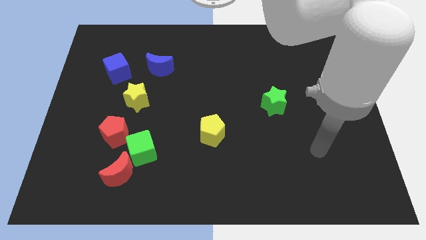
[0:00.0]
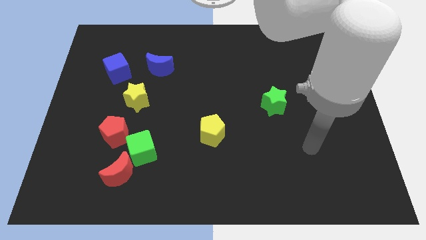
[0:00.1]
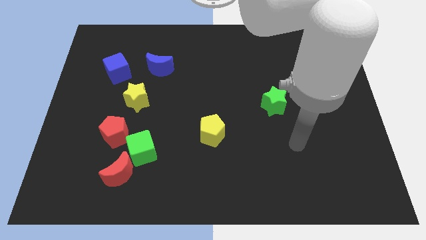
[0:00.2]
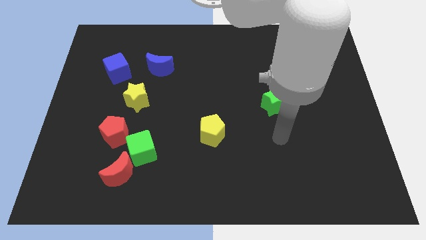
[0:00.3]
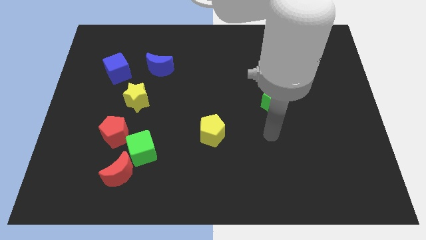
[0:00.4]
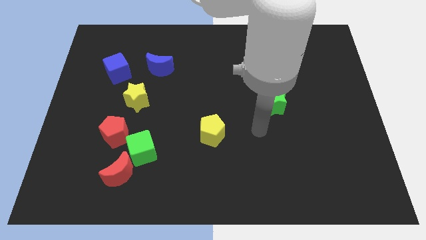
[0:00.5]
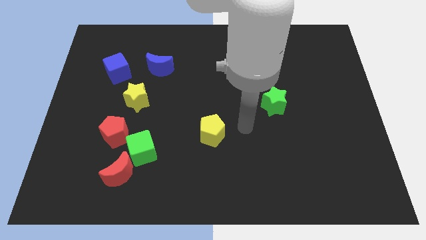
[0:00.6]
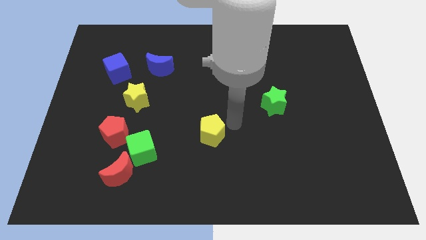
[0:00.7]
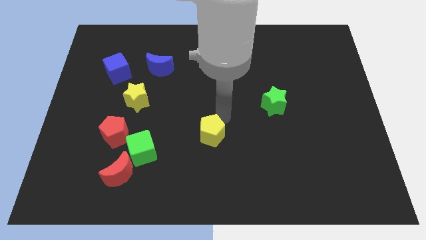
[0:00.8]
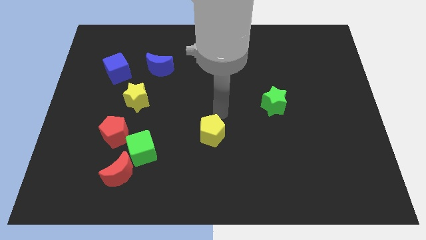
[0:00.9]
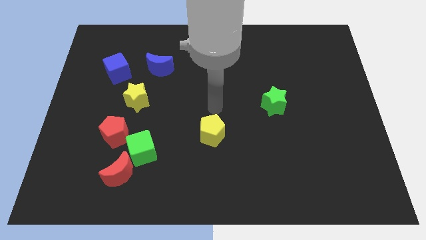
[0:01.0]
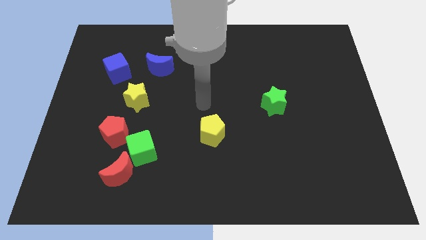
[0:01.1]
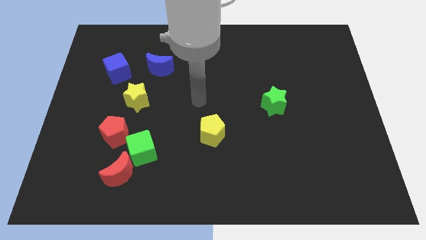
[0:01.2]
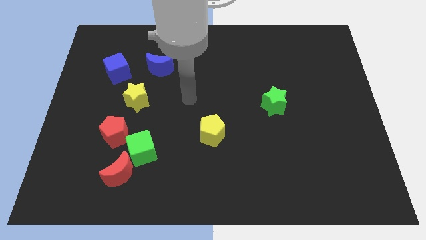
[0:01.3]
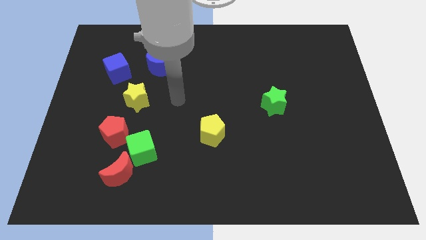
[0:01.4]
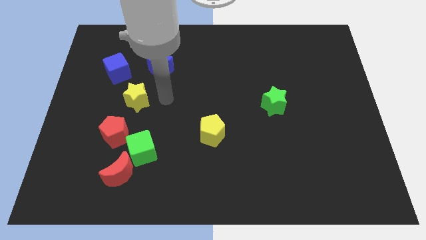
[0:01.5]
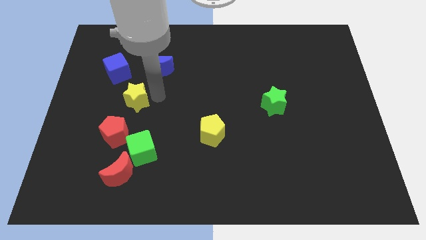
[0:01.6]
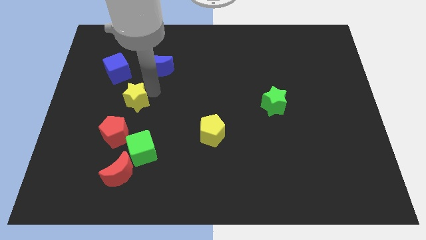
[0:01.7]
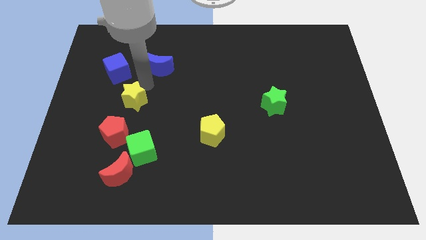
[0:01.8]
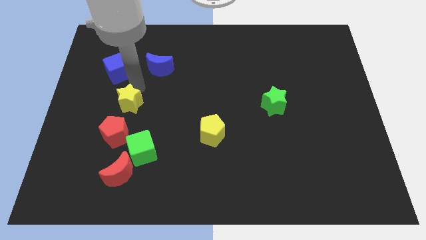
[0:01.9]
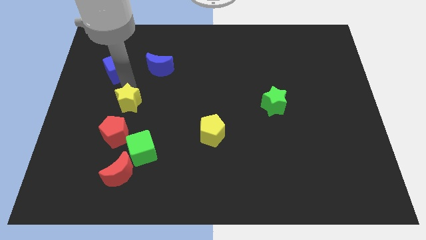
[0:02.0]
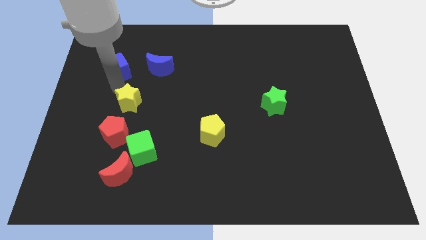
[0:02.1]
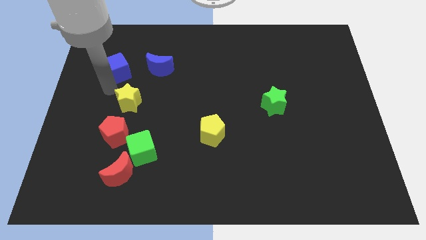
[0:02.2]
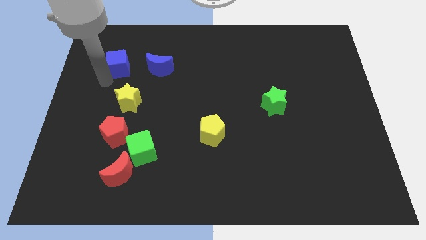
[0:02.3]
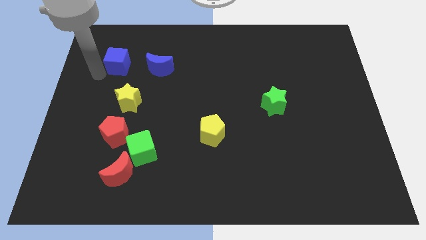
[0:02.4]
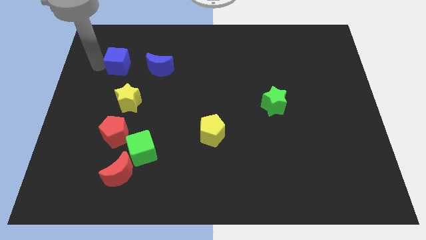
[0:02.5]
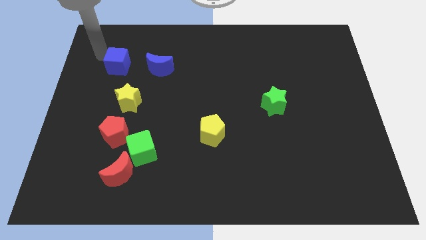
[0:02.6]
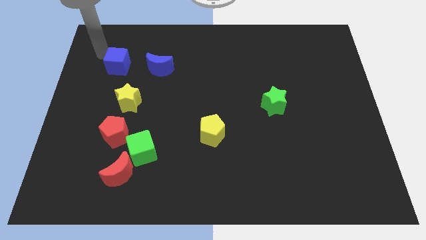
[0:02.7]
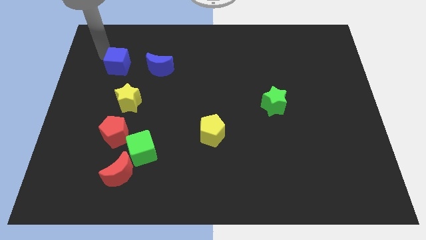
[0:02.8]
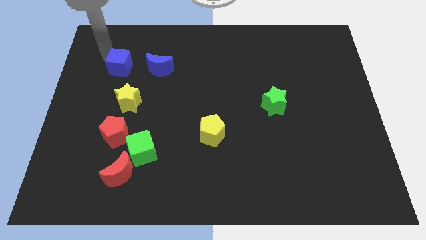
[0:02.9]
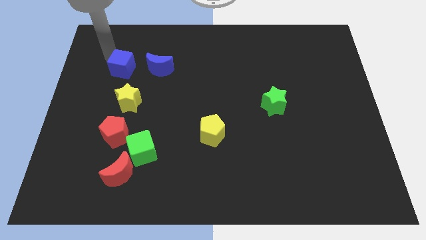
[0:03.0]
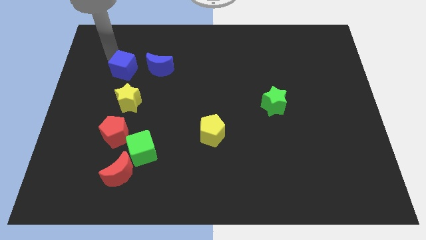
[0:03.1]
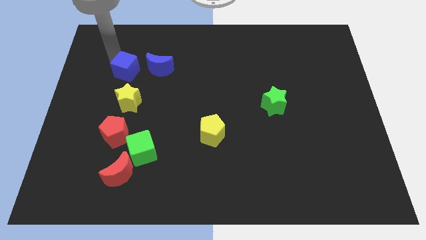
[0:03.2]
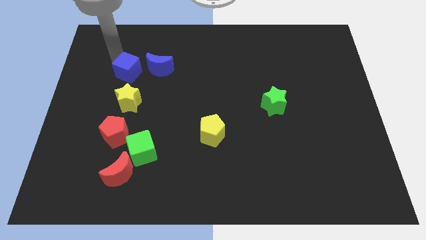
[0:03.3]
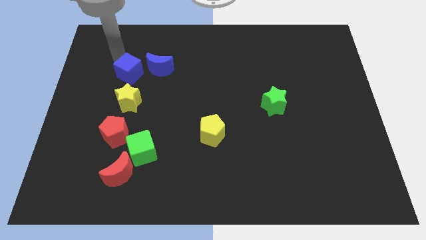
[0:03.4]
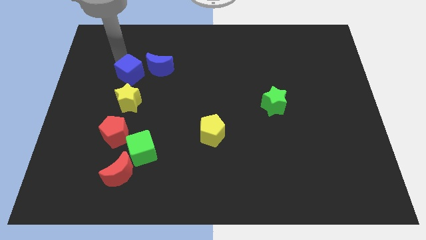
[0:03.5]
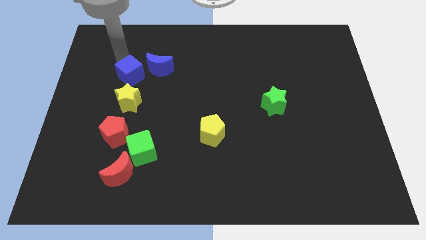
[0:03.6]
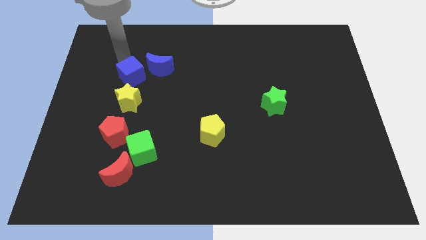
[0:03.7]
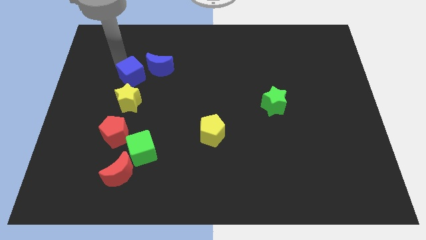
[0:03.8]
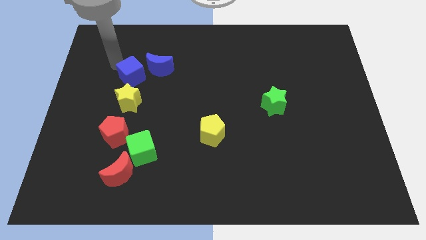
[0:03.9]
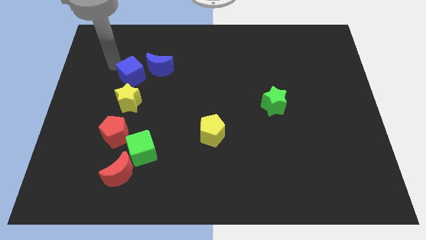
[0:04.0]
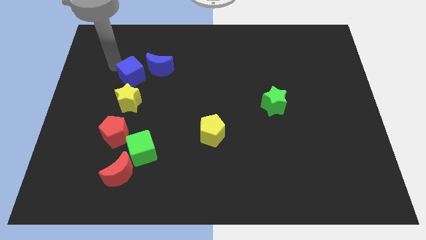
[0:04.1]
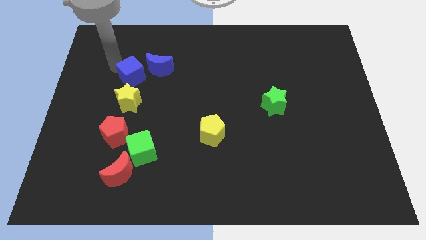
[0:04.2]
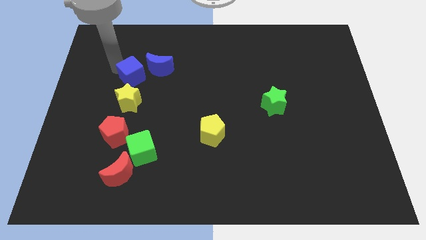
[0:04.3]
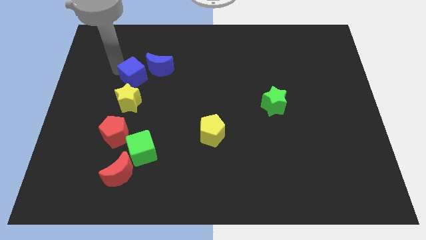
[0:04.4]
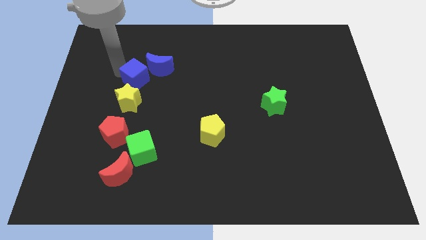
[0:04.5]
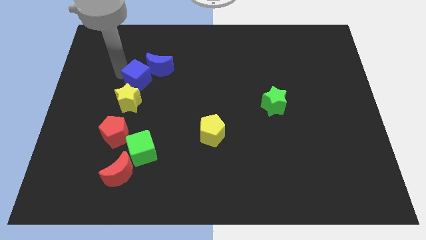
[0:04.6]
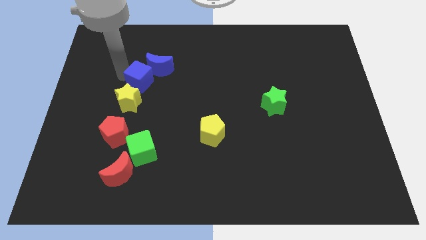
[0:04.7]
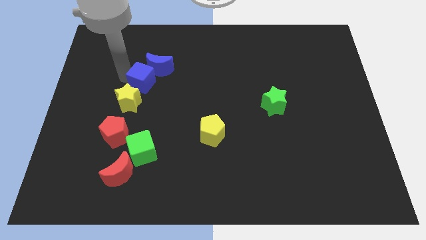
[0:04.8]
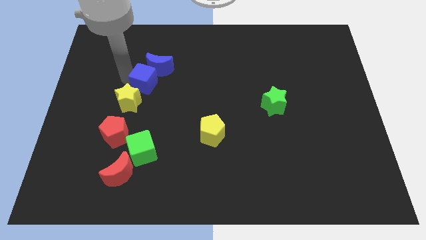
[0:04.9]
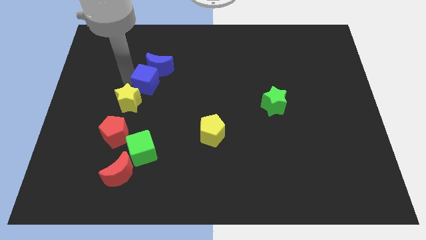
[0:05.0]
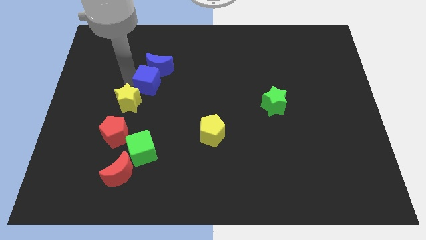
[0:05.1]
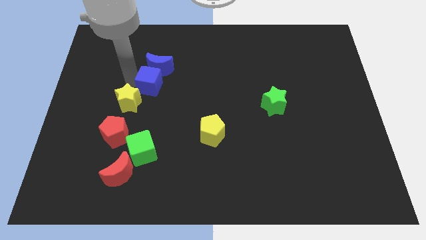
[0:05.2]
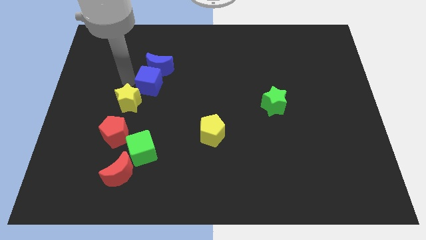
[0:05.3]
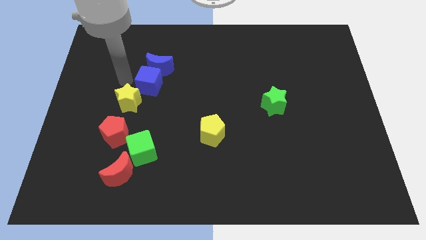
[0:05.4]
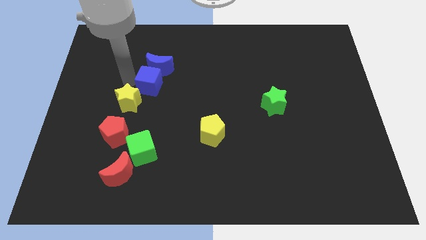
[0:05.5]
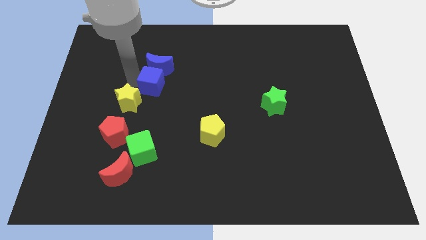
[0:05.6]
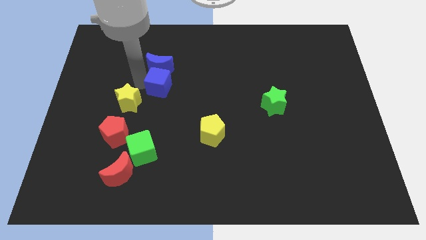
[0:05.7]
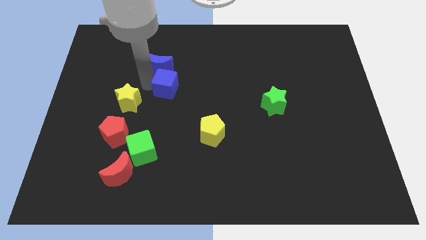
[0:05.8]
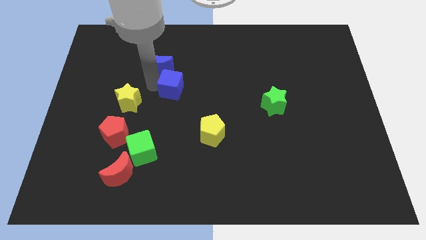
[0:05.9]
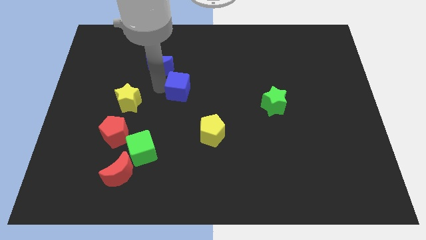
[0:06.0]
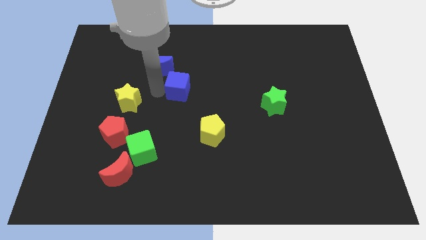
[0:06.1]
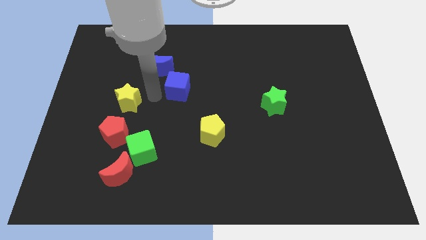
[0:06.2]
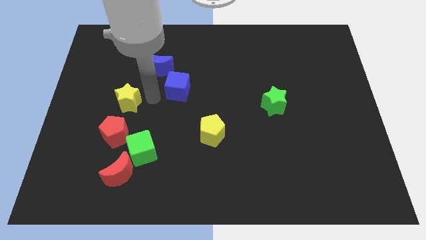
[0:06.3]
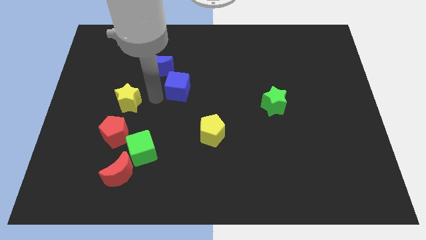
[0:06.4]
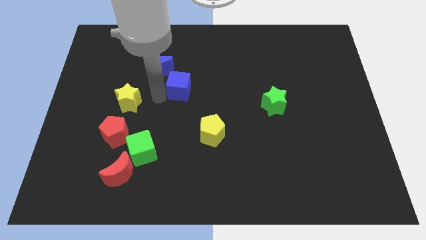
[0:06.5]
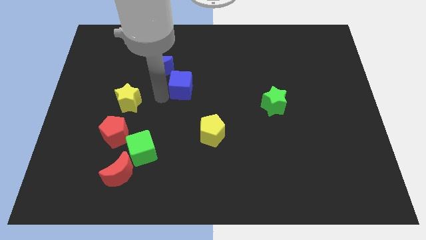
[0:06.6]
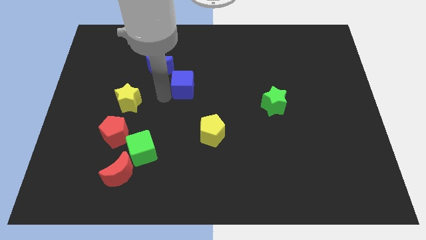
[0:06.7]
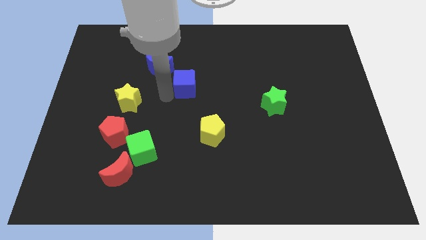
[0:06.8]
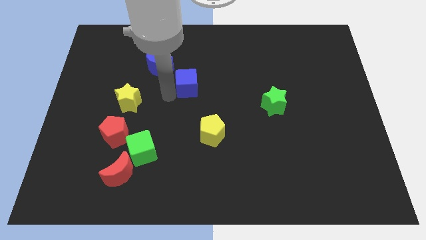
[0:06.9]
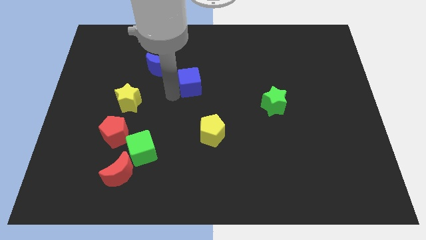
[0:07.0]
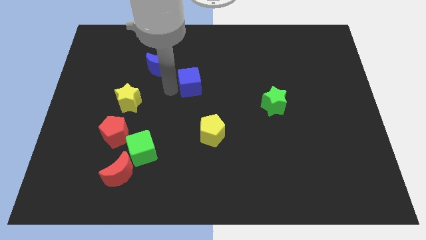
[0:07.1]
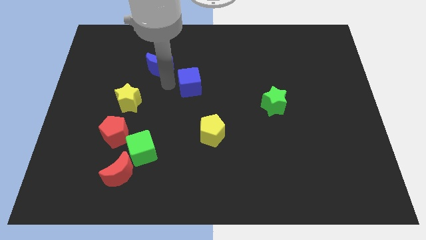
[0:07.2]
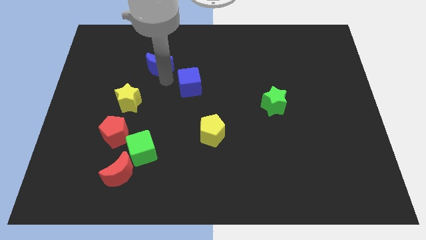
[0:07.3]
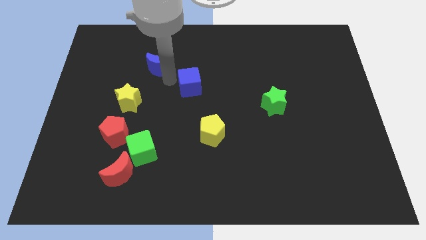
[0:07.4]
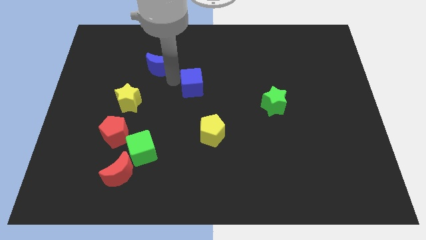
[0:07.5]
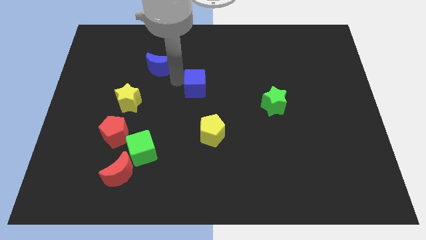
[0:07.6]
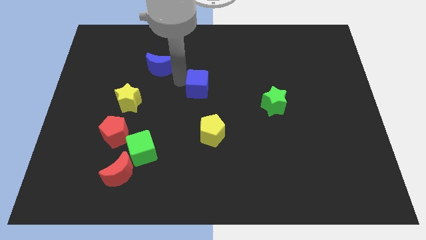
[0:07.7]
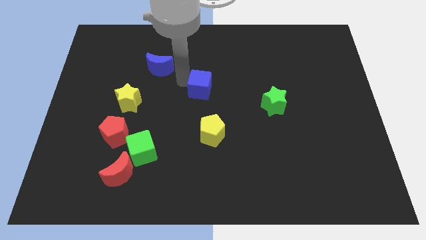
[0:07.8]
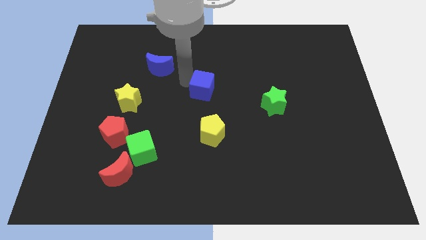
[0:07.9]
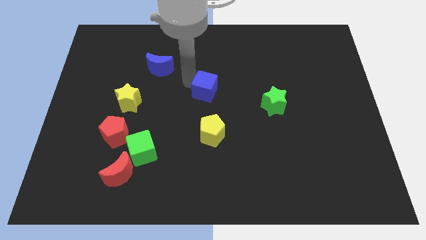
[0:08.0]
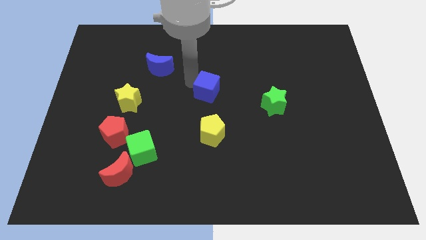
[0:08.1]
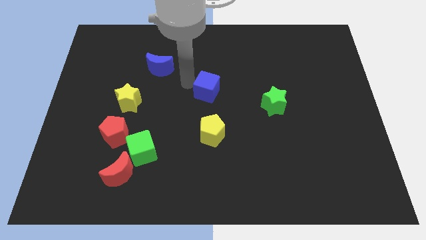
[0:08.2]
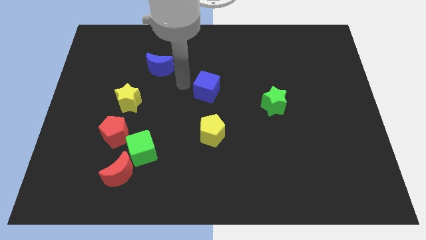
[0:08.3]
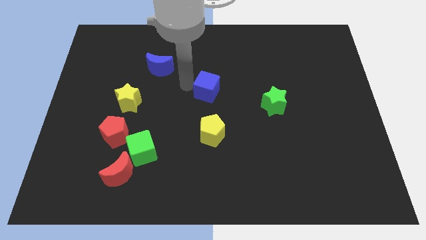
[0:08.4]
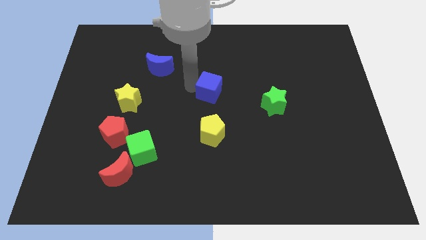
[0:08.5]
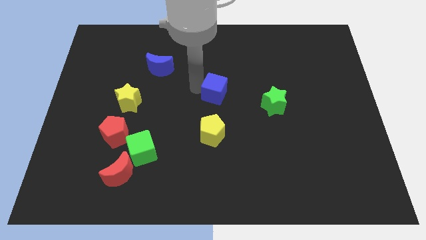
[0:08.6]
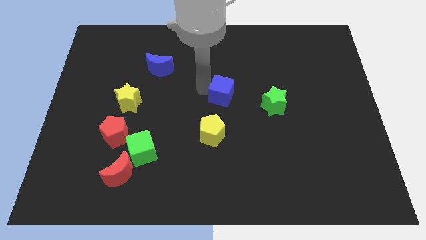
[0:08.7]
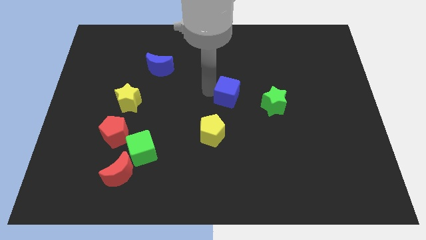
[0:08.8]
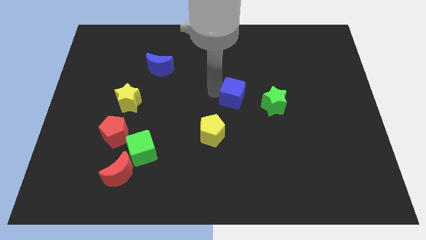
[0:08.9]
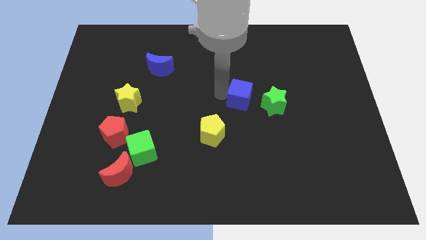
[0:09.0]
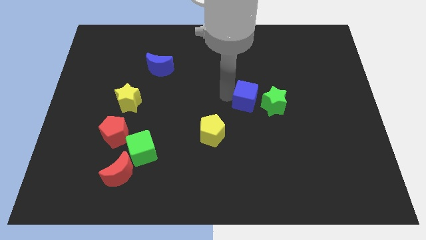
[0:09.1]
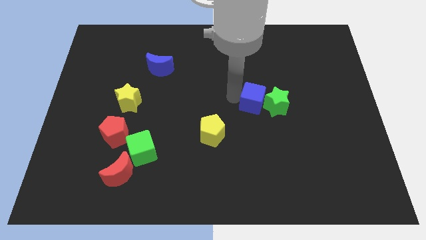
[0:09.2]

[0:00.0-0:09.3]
put the blue cube to the green star
